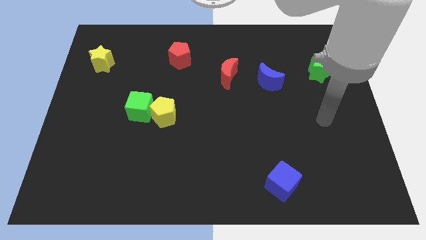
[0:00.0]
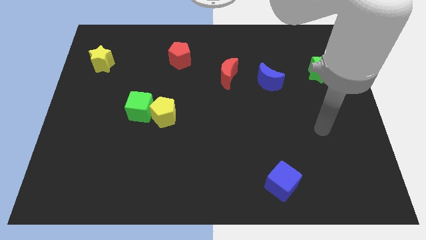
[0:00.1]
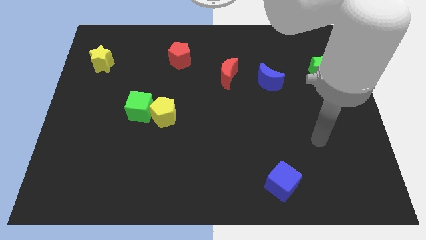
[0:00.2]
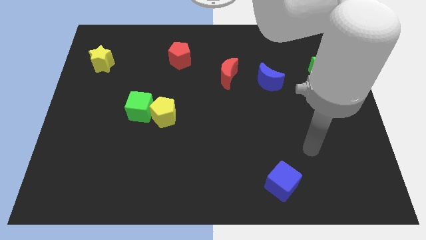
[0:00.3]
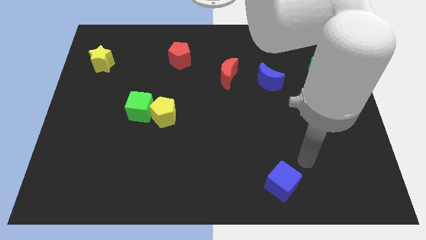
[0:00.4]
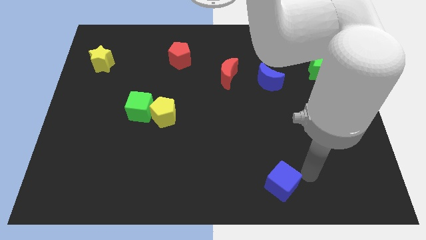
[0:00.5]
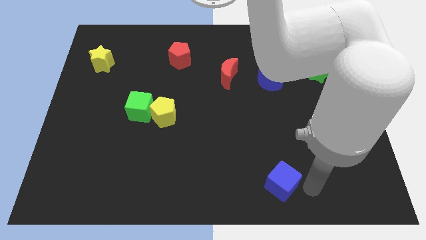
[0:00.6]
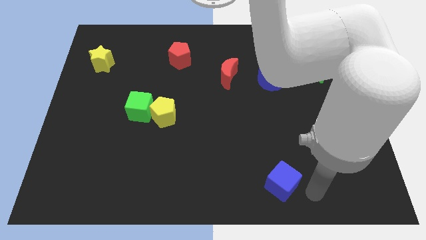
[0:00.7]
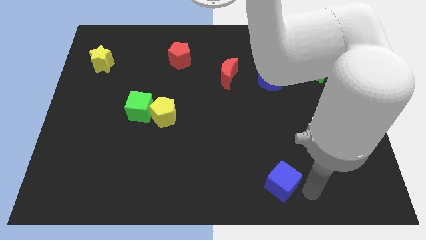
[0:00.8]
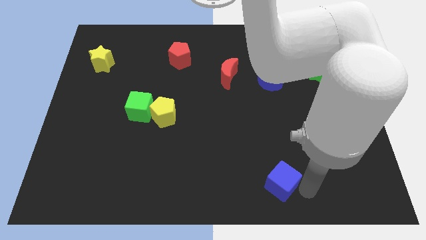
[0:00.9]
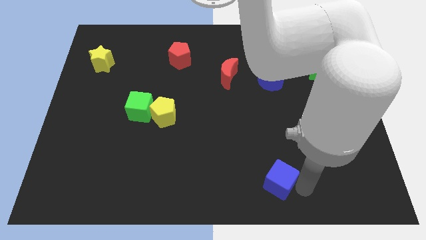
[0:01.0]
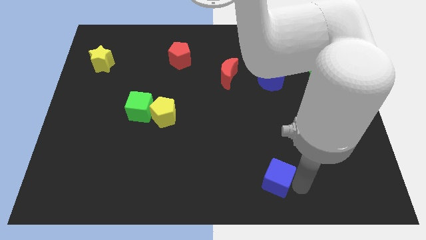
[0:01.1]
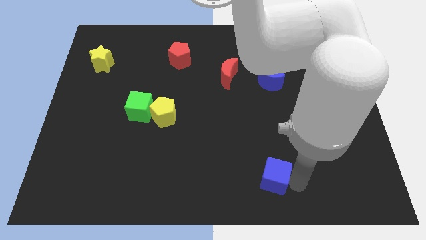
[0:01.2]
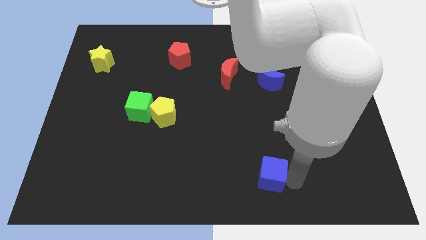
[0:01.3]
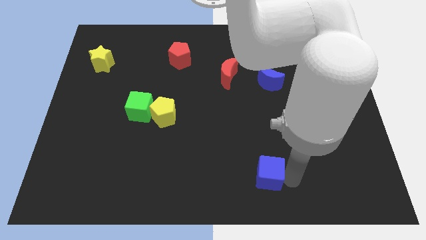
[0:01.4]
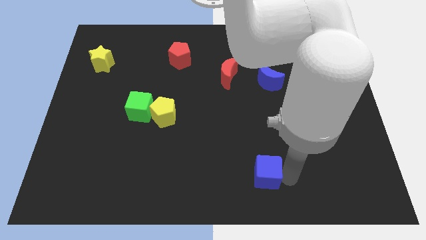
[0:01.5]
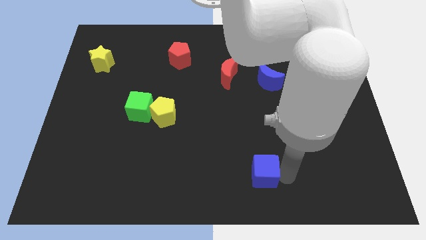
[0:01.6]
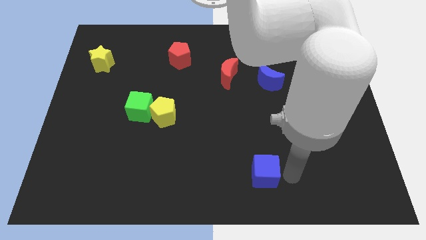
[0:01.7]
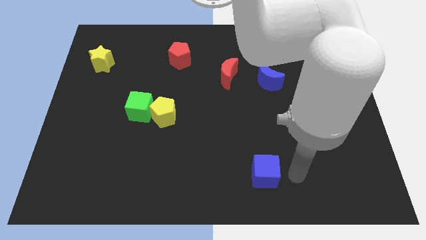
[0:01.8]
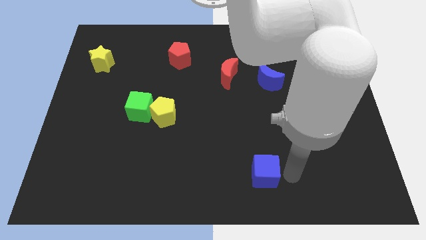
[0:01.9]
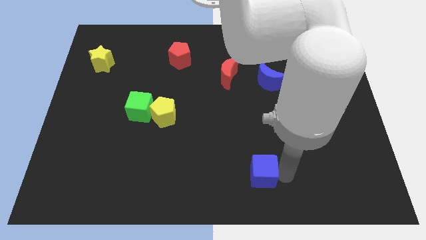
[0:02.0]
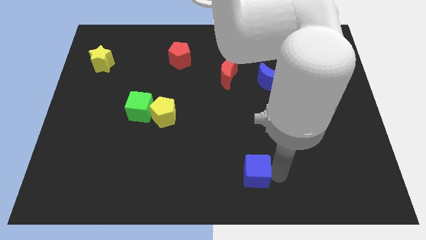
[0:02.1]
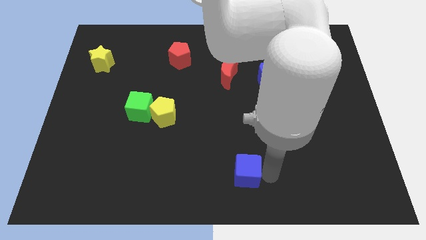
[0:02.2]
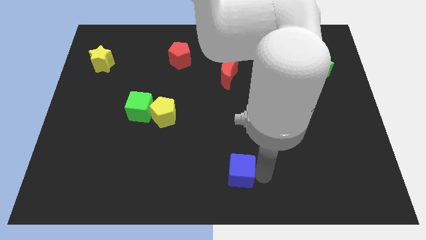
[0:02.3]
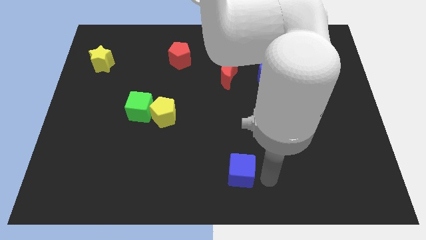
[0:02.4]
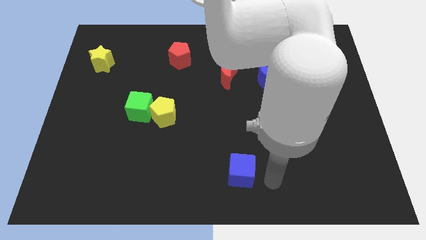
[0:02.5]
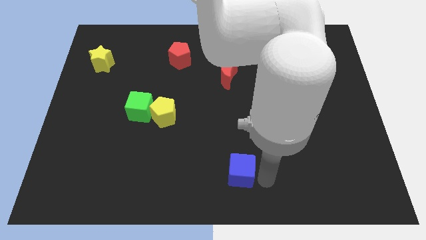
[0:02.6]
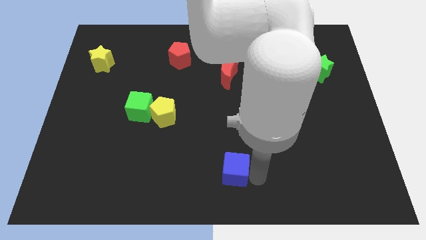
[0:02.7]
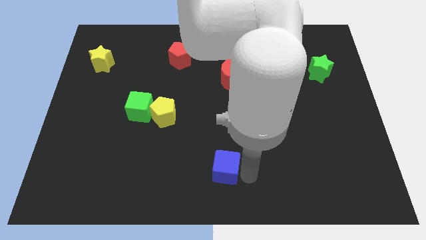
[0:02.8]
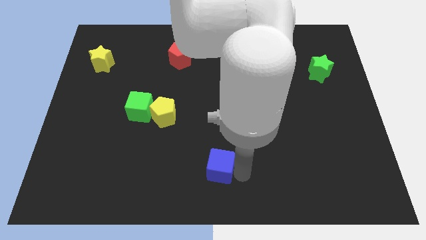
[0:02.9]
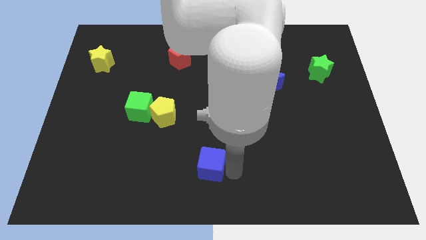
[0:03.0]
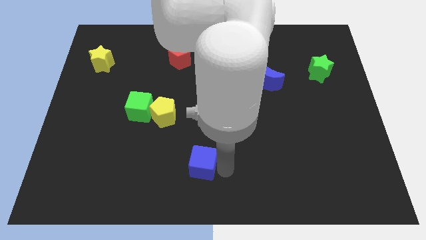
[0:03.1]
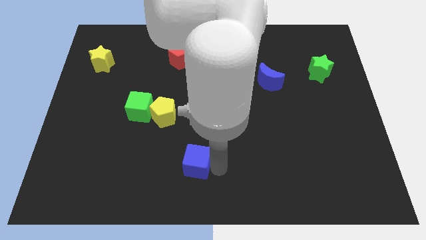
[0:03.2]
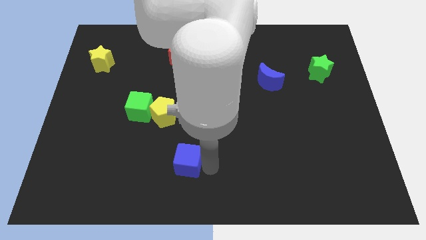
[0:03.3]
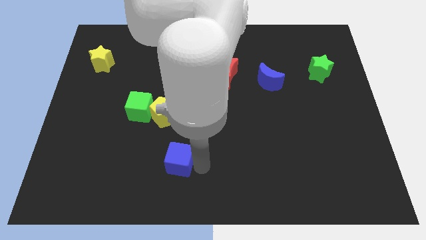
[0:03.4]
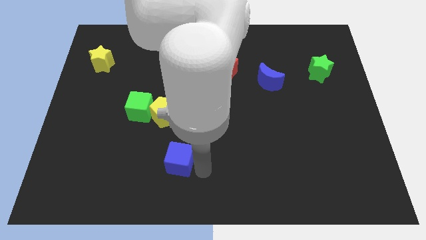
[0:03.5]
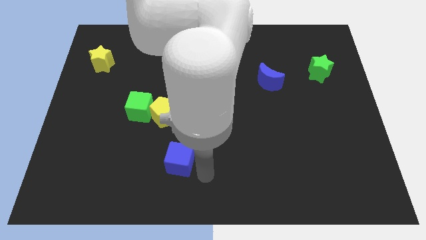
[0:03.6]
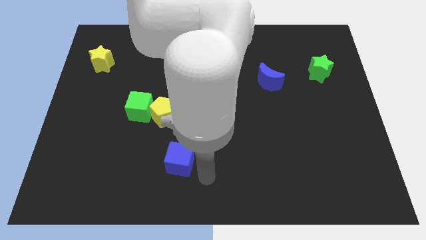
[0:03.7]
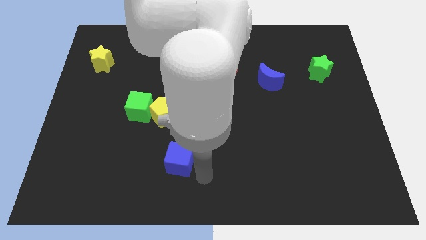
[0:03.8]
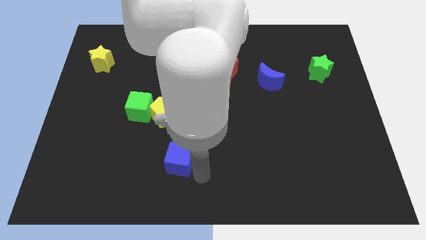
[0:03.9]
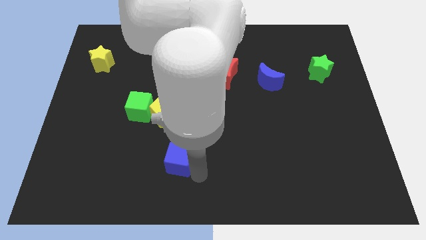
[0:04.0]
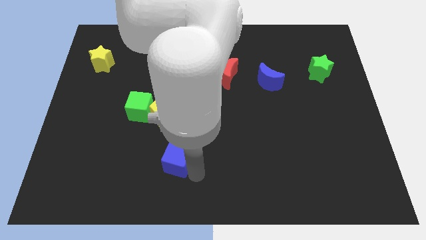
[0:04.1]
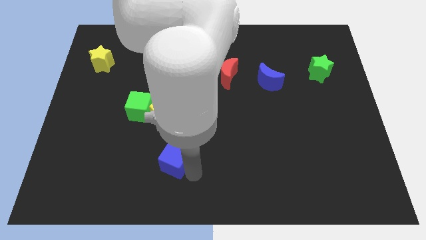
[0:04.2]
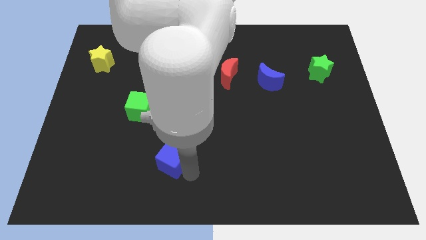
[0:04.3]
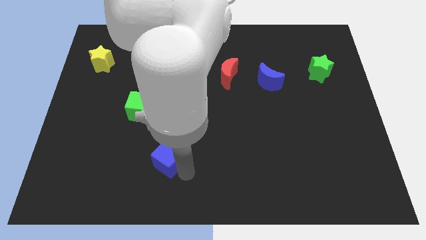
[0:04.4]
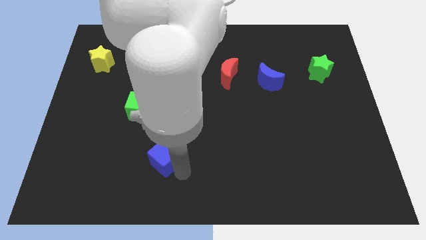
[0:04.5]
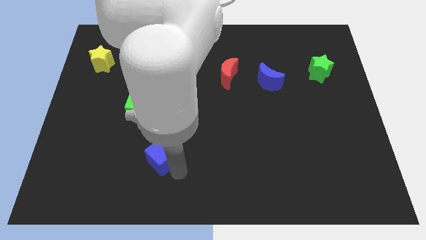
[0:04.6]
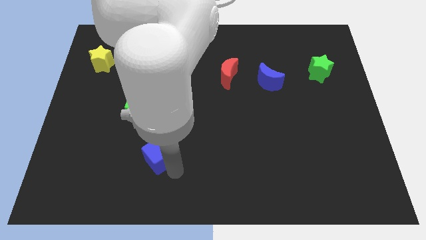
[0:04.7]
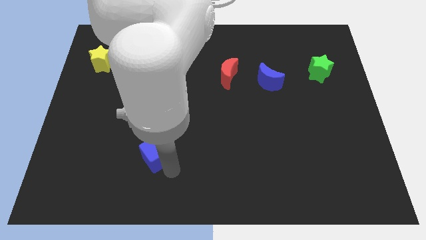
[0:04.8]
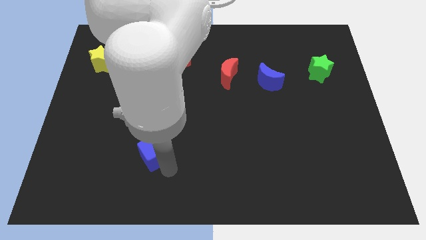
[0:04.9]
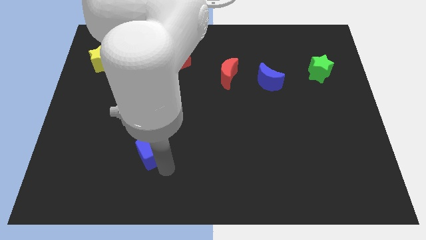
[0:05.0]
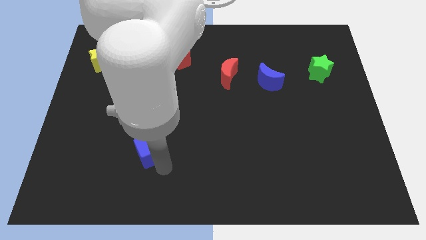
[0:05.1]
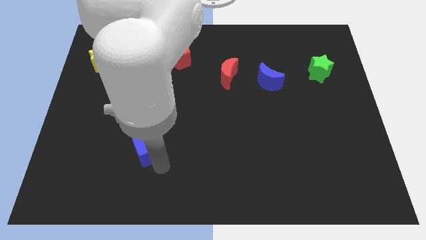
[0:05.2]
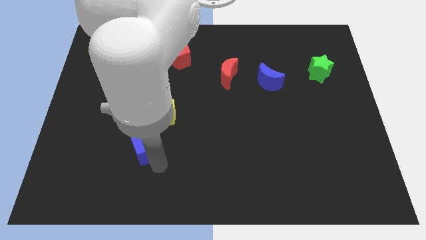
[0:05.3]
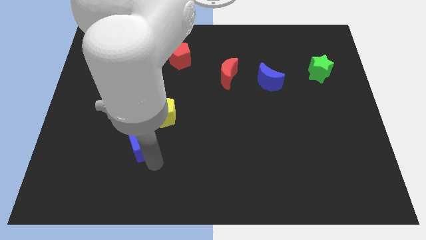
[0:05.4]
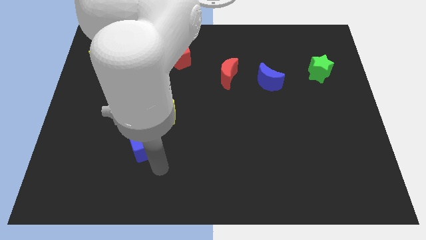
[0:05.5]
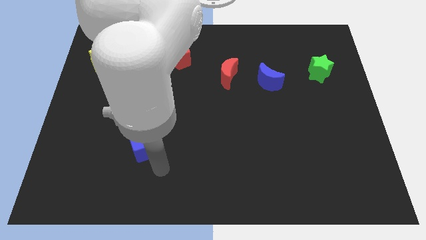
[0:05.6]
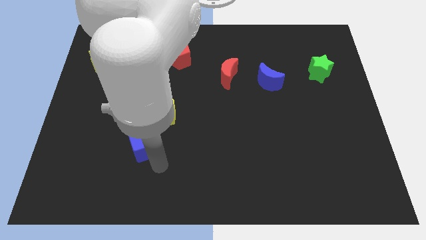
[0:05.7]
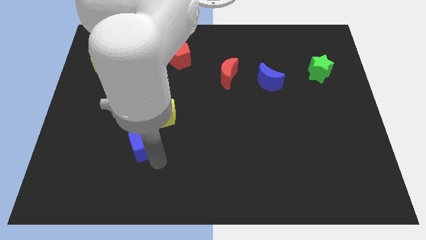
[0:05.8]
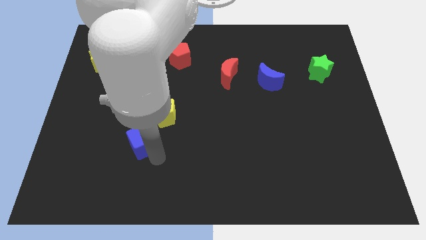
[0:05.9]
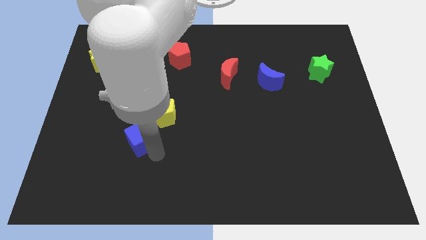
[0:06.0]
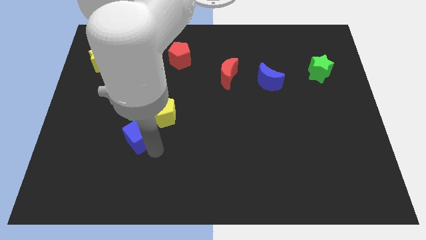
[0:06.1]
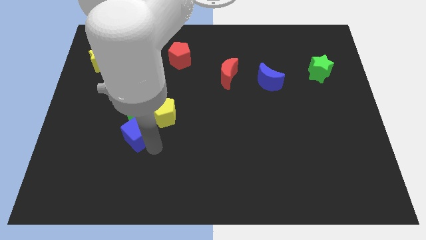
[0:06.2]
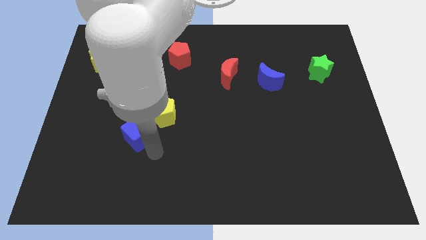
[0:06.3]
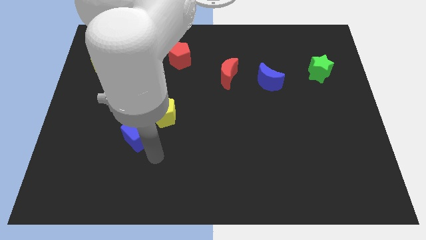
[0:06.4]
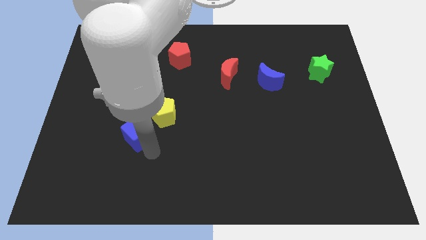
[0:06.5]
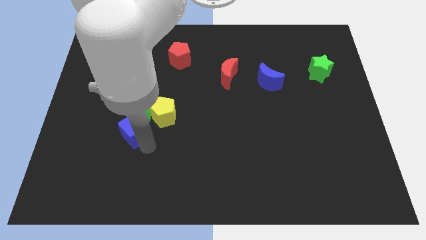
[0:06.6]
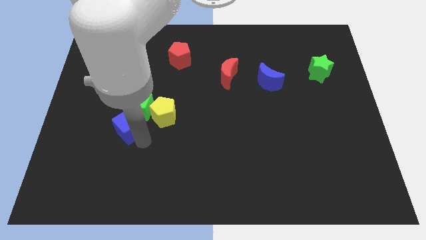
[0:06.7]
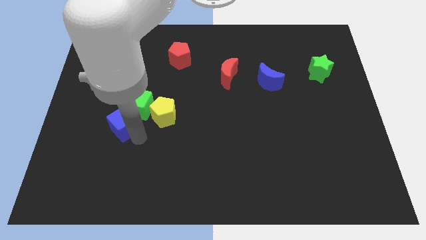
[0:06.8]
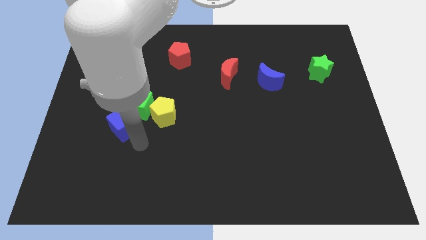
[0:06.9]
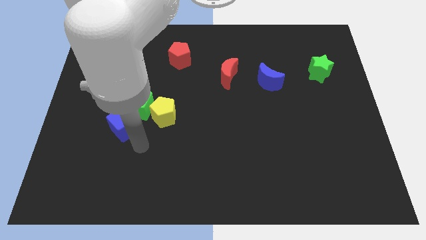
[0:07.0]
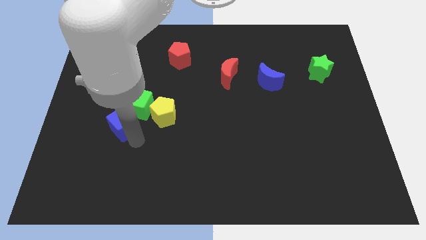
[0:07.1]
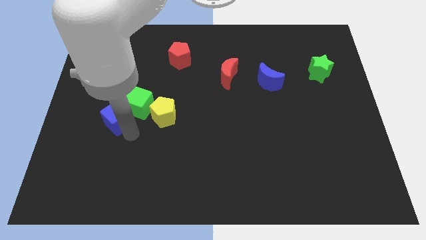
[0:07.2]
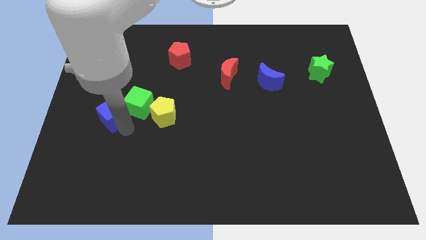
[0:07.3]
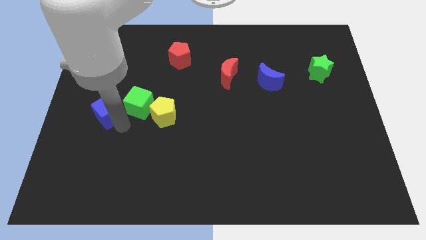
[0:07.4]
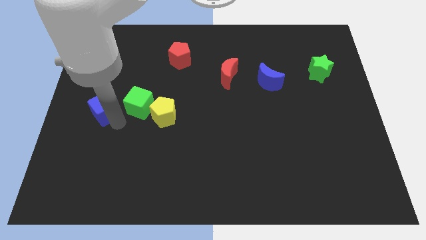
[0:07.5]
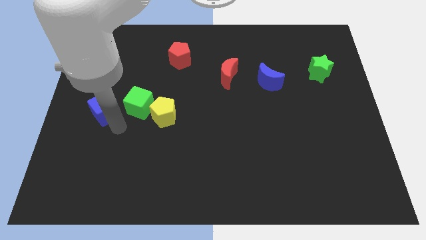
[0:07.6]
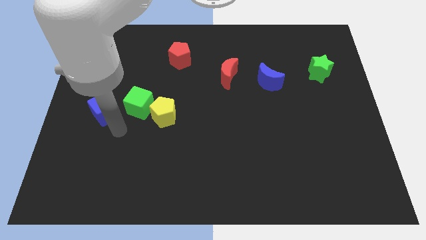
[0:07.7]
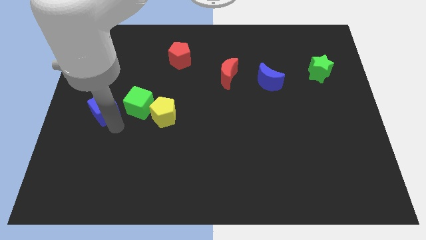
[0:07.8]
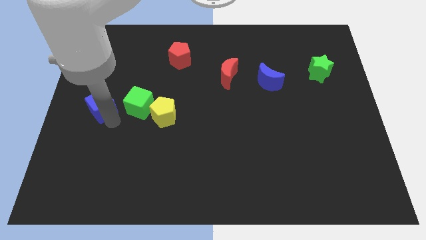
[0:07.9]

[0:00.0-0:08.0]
put the blue cube to the bottom side of the yellow star
